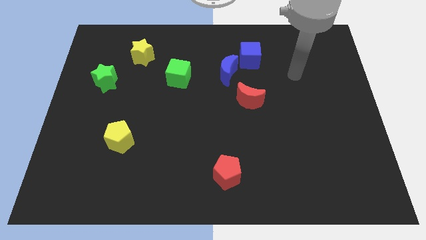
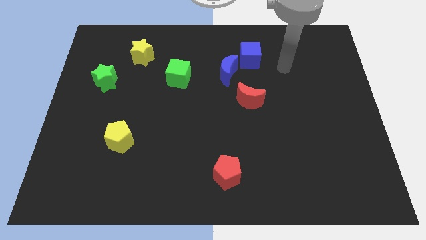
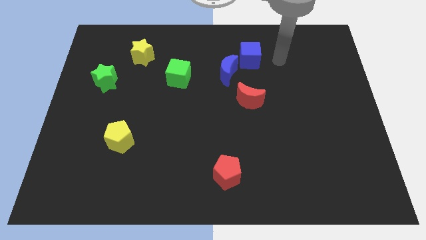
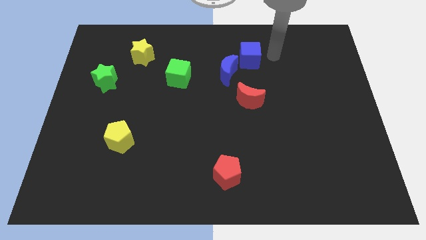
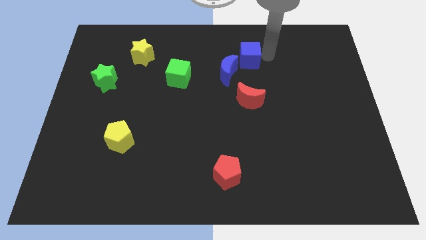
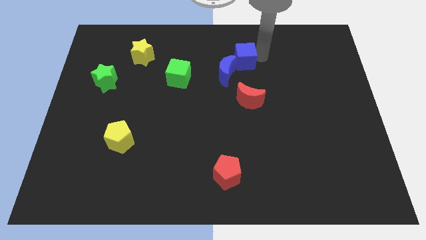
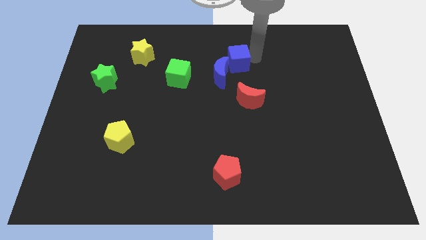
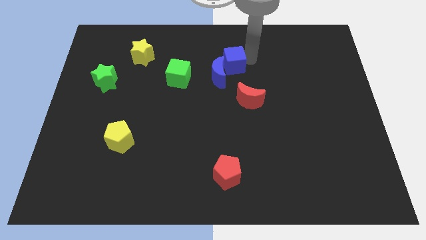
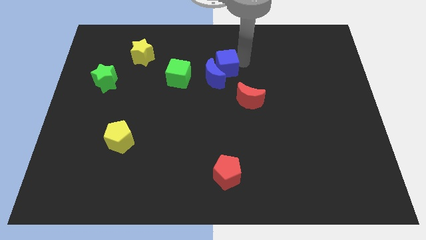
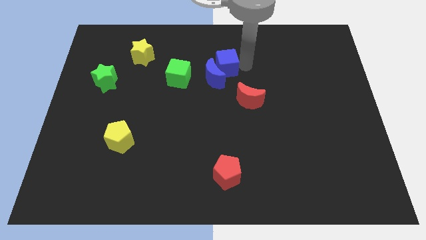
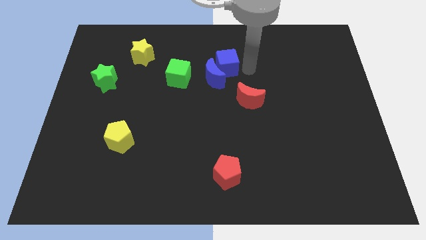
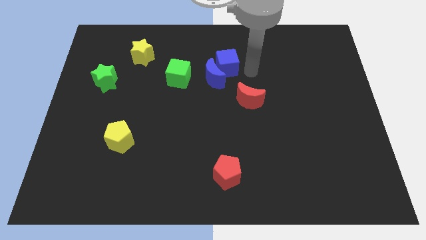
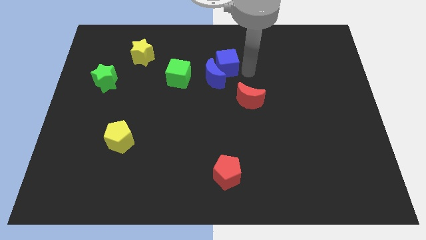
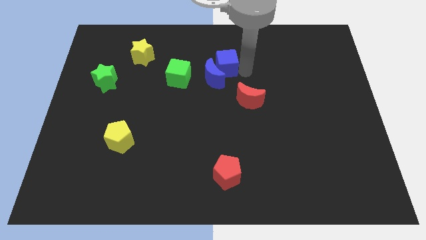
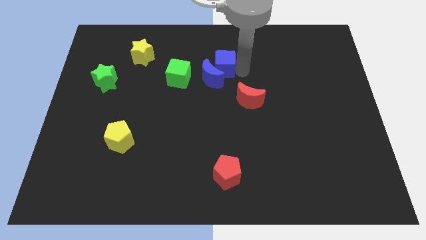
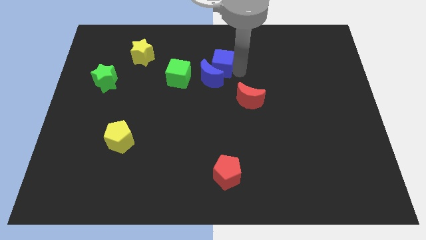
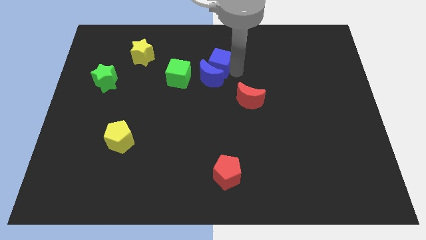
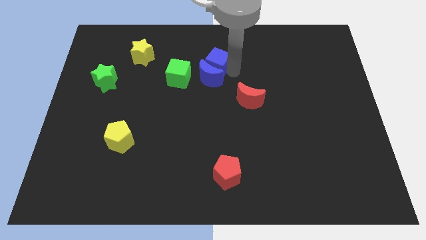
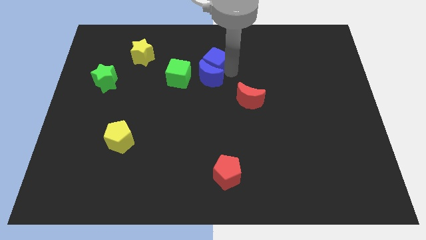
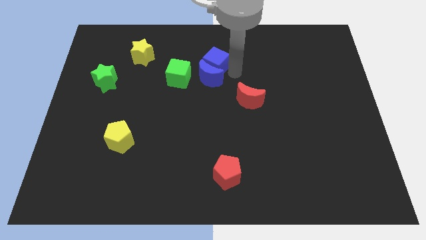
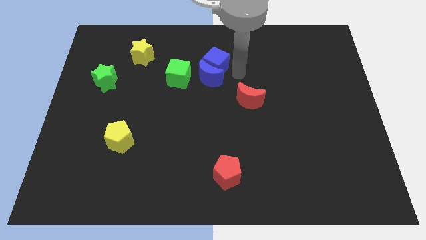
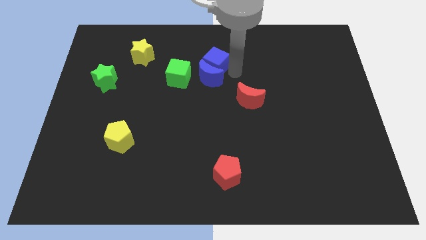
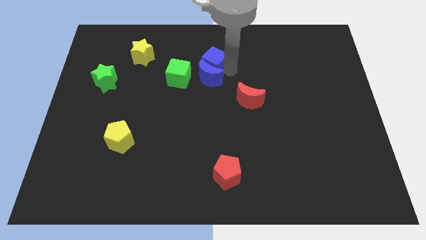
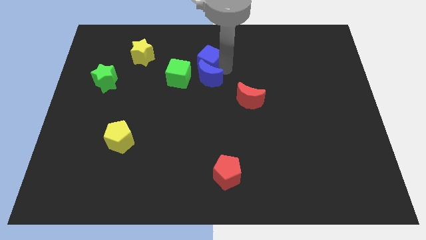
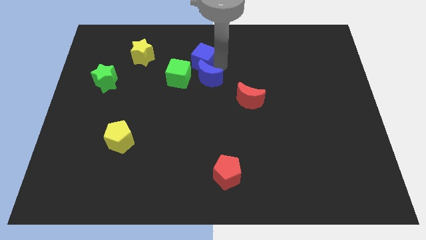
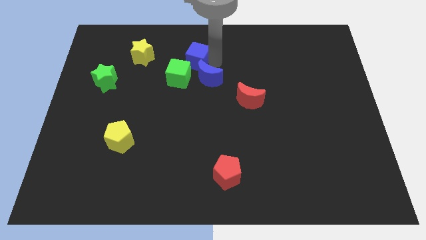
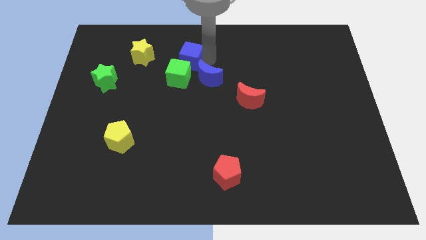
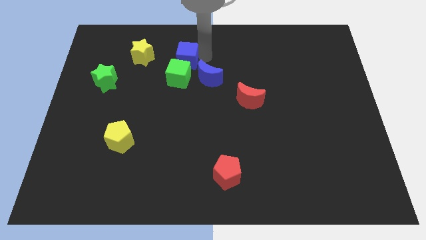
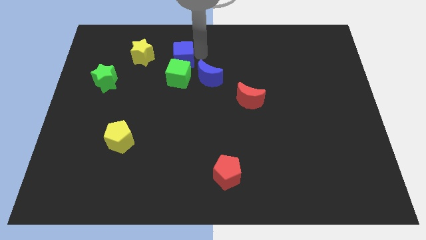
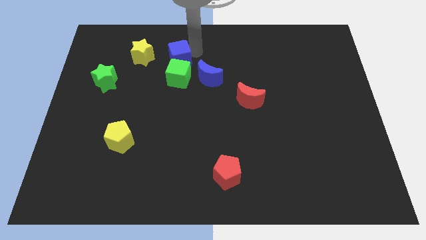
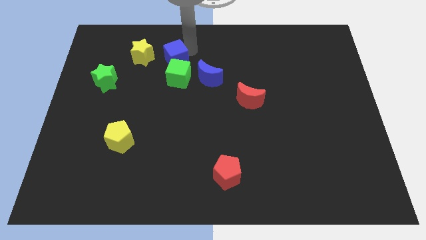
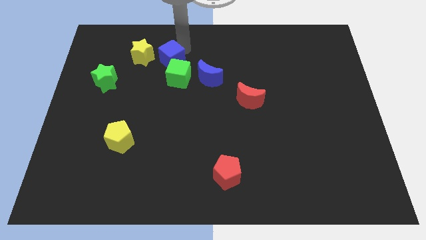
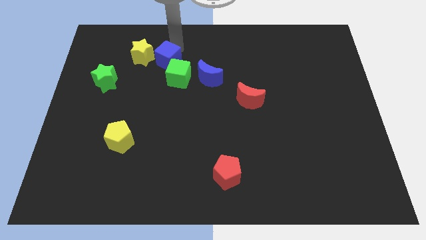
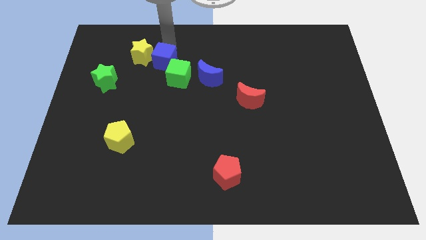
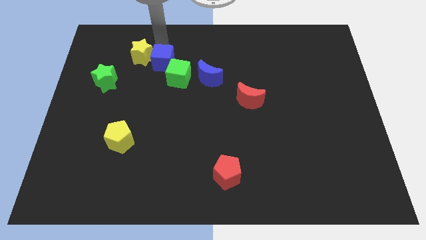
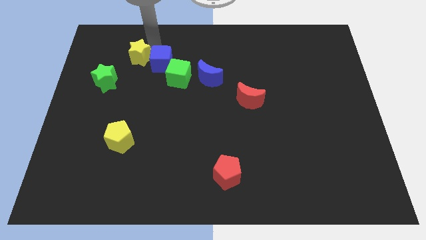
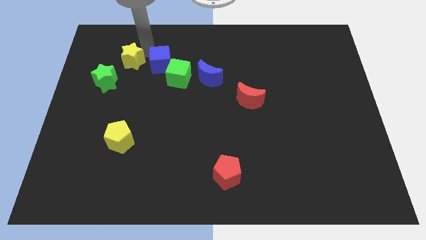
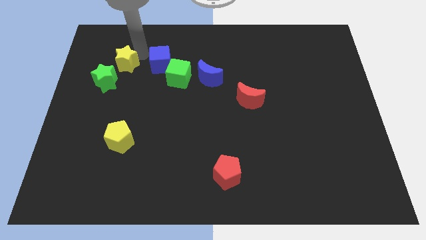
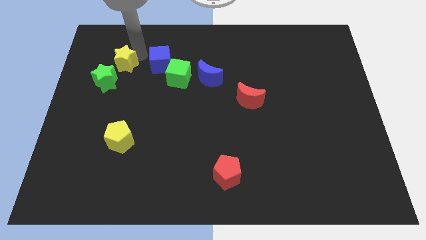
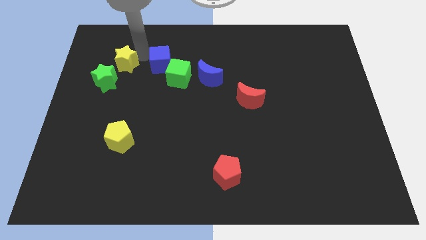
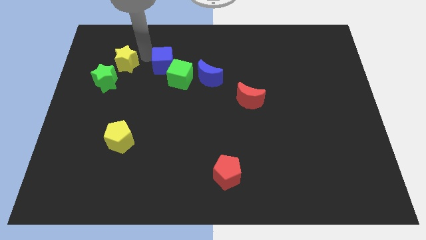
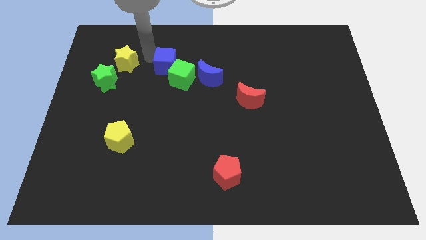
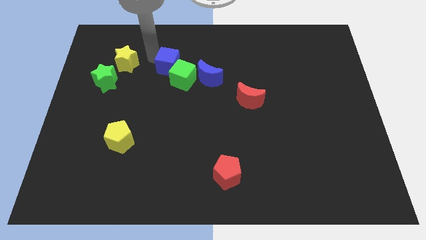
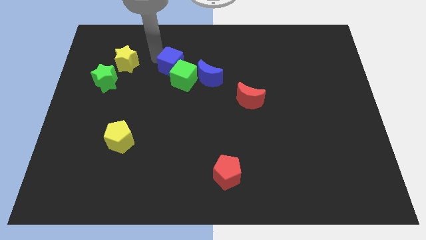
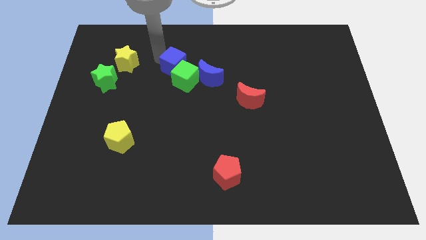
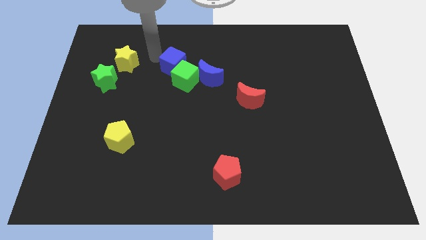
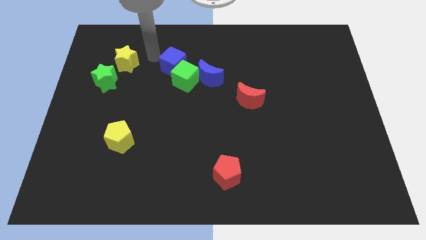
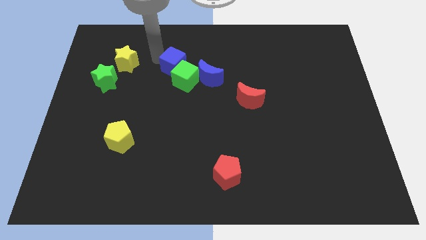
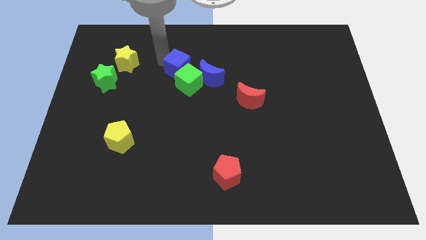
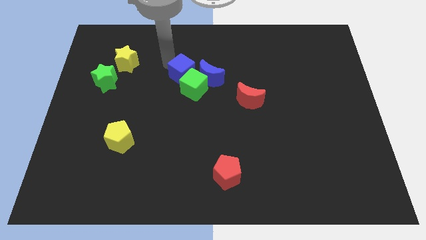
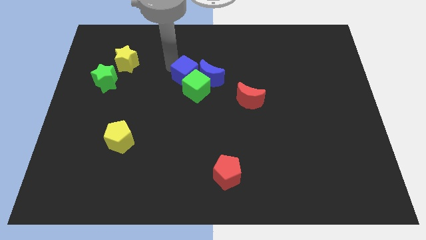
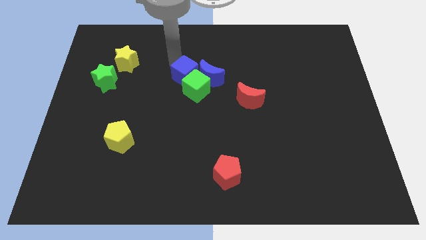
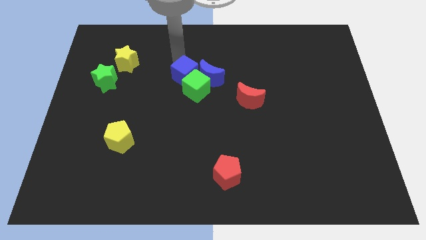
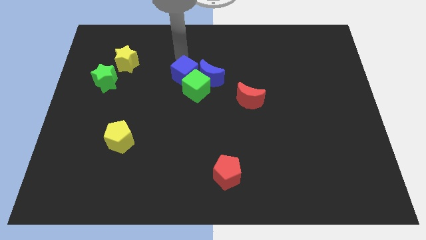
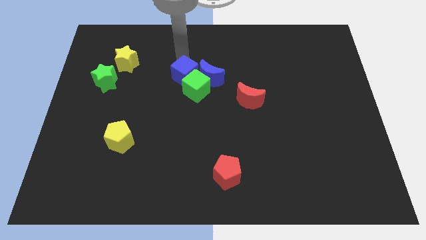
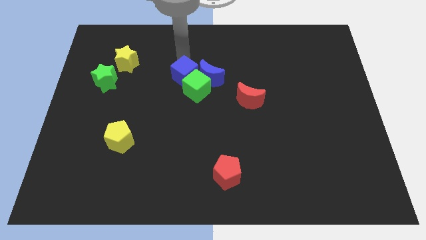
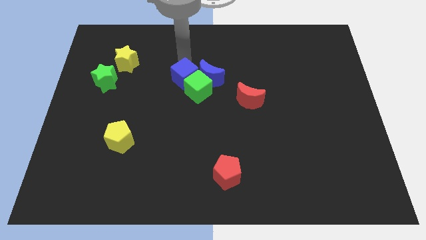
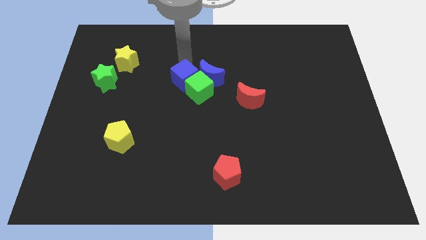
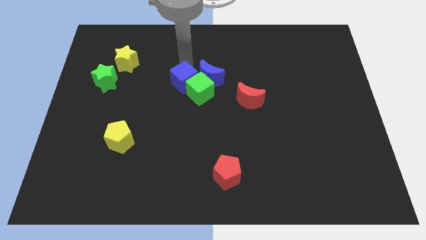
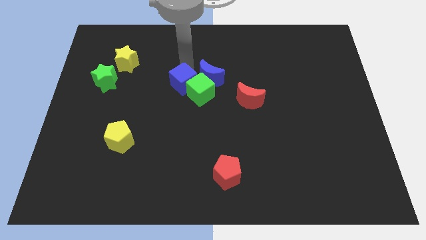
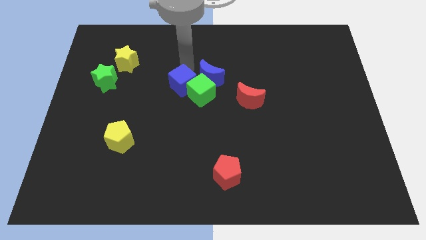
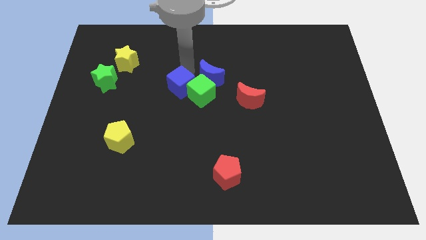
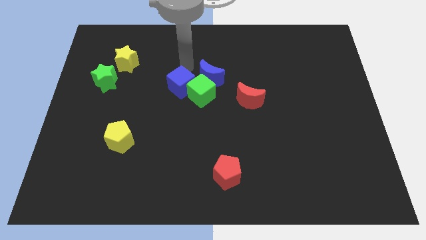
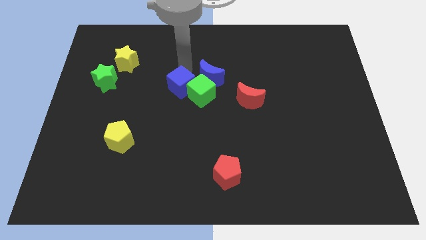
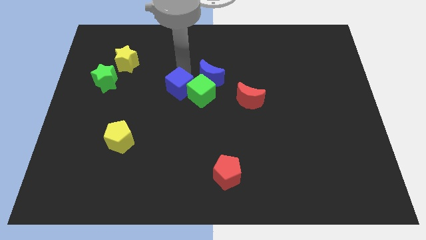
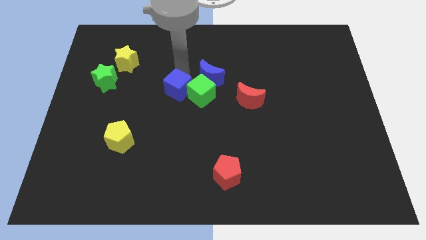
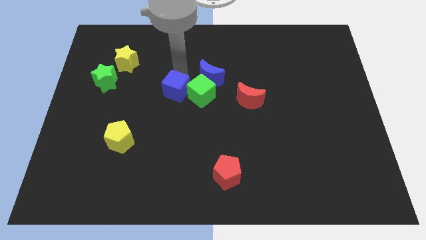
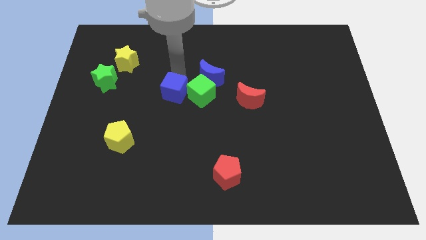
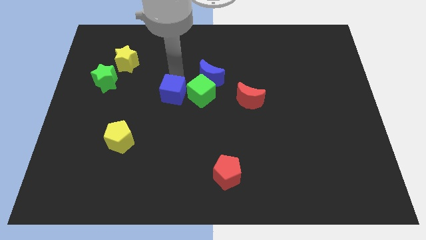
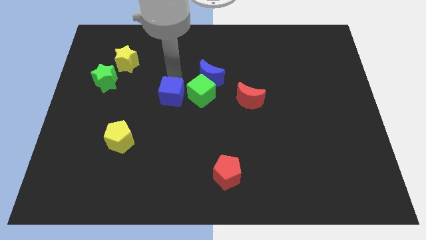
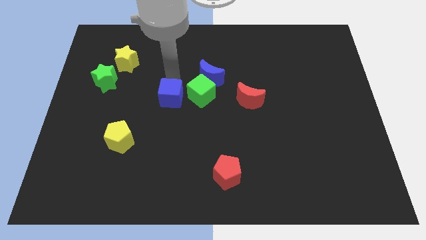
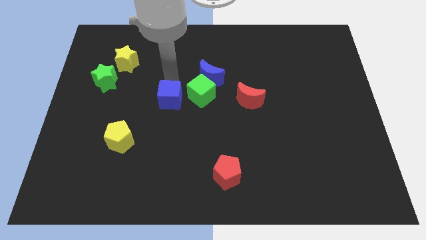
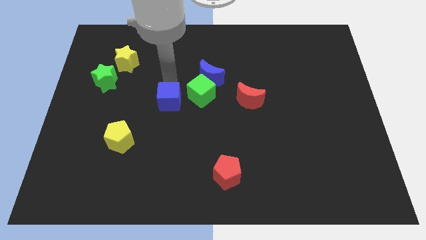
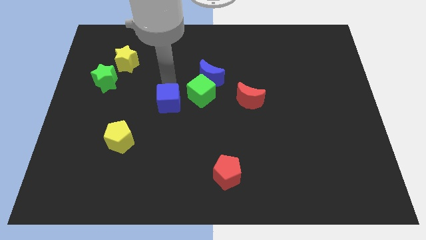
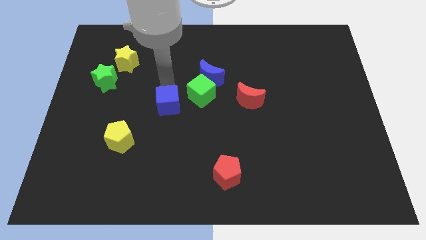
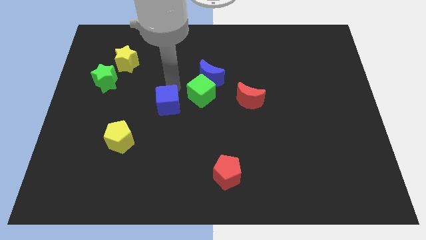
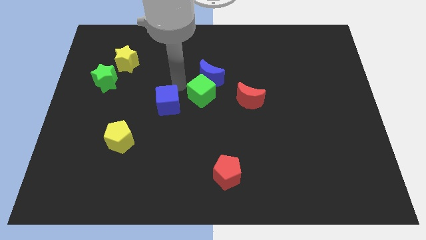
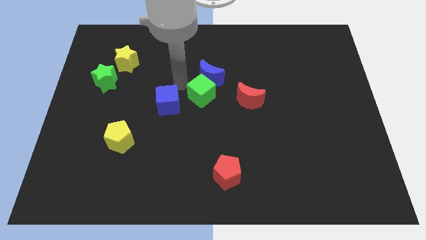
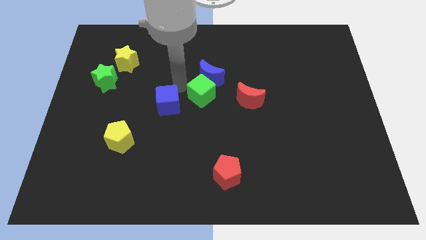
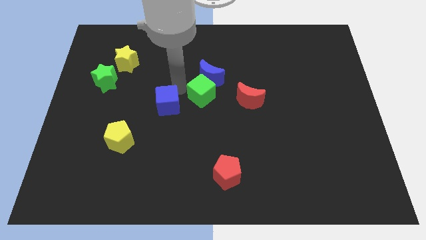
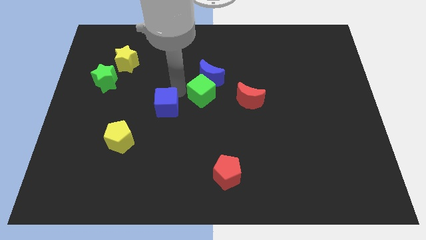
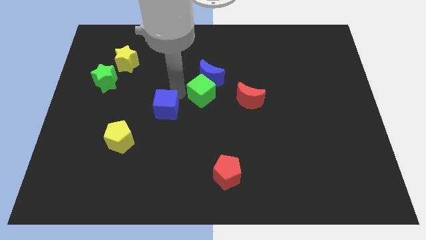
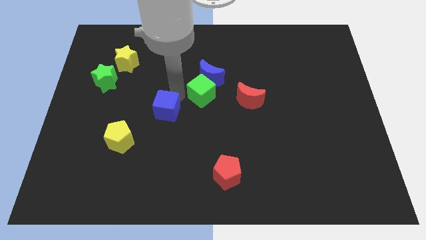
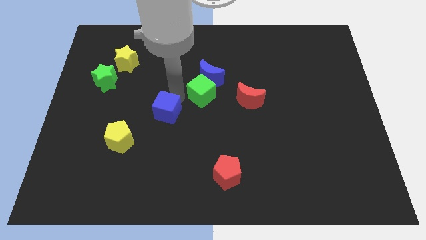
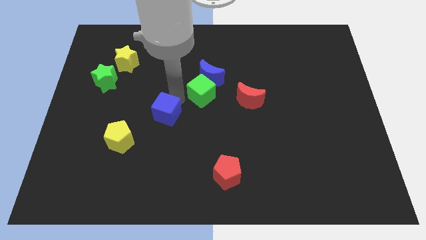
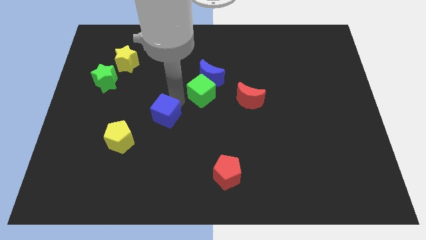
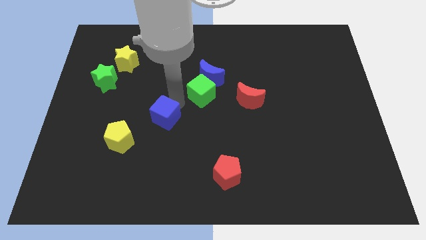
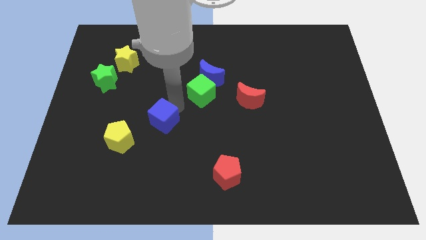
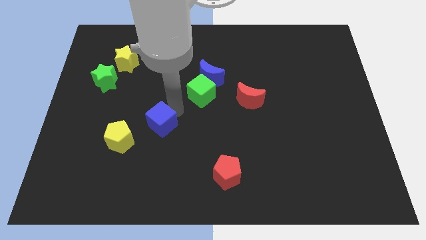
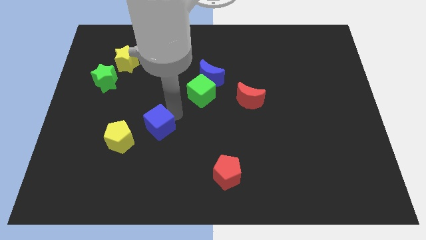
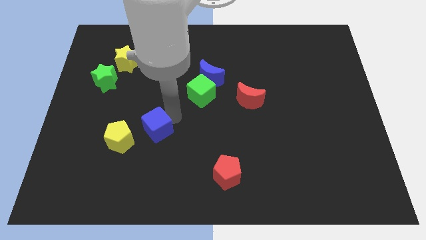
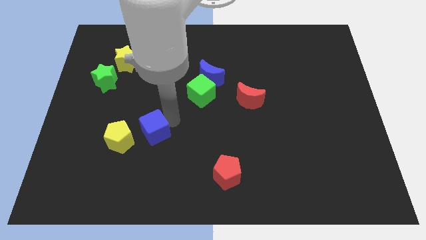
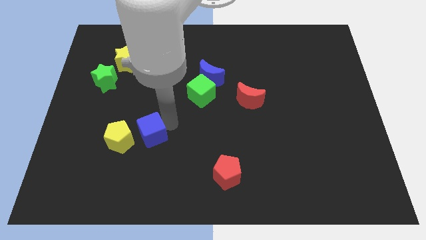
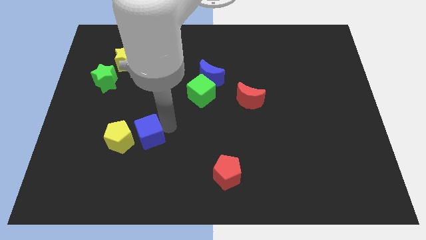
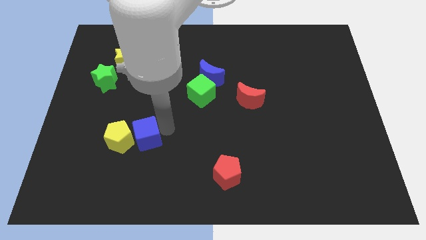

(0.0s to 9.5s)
slide the blue cube next to the yellow pentagon
